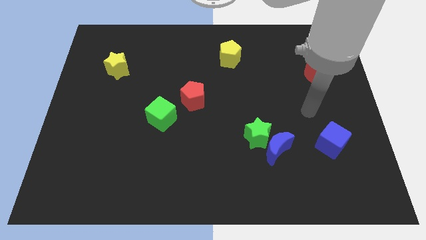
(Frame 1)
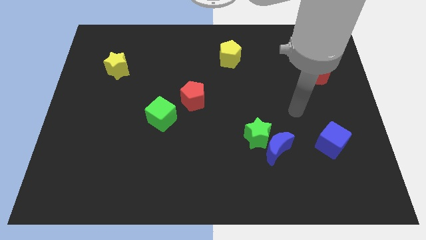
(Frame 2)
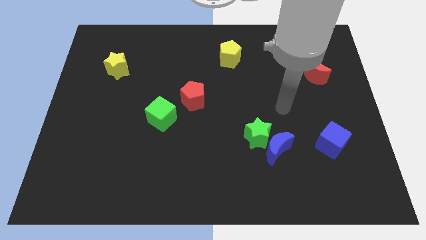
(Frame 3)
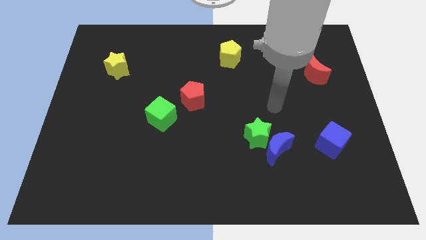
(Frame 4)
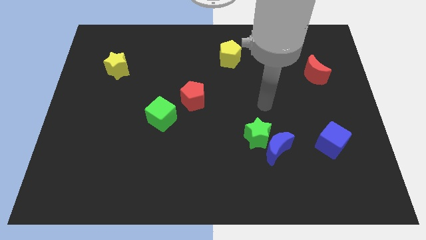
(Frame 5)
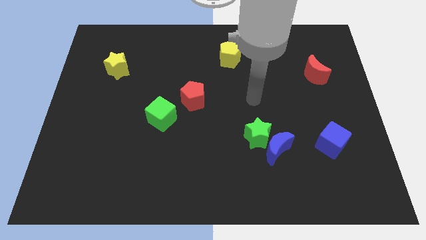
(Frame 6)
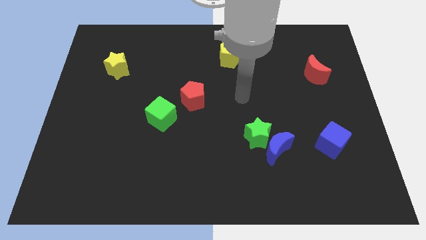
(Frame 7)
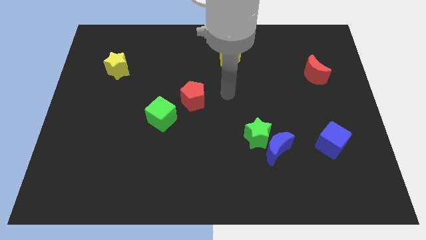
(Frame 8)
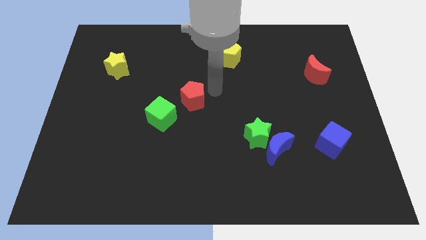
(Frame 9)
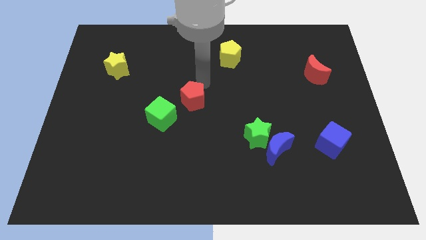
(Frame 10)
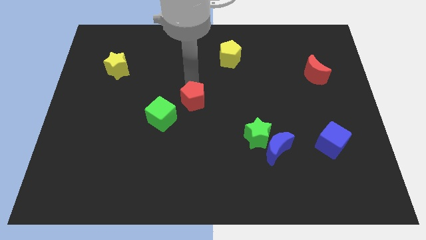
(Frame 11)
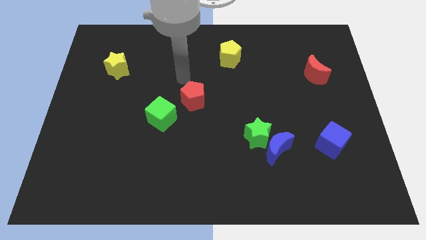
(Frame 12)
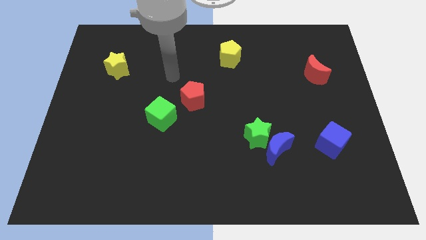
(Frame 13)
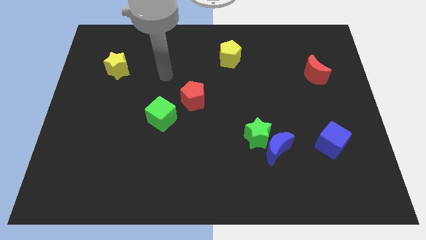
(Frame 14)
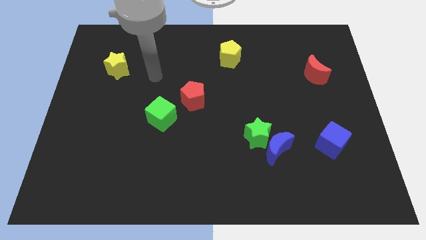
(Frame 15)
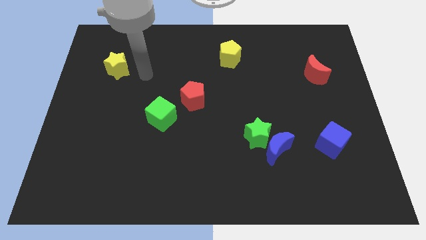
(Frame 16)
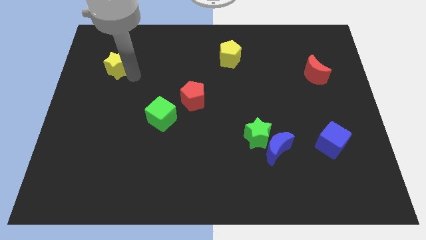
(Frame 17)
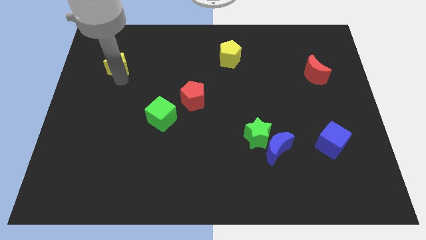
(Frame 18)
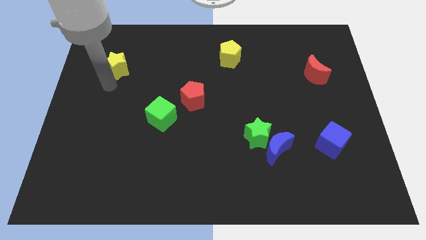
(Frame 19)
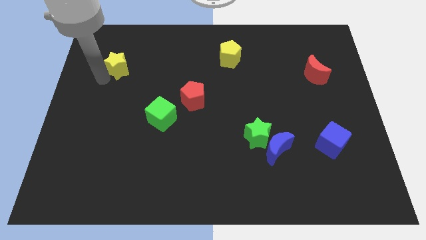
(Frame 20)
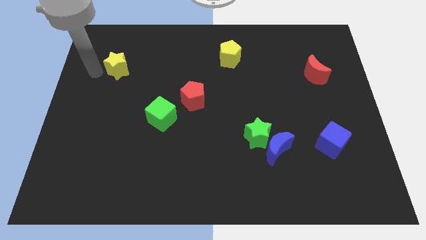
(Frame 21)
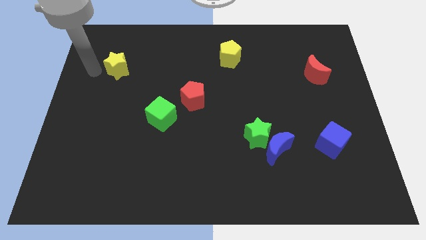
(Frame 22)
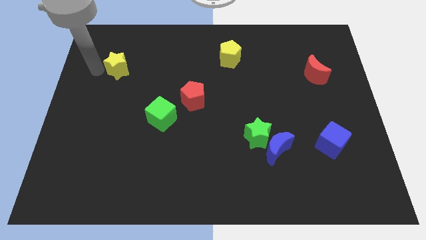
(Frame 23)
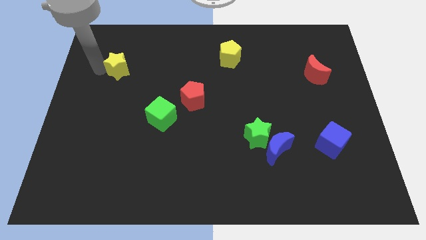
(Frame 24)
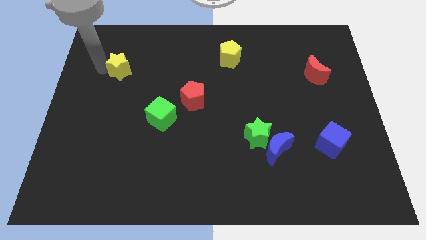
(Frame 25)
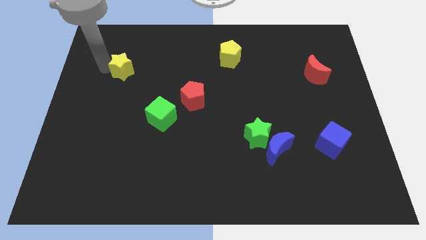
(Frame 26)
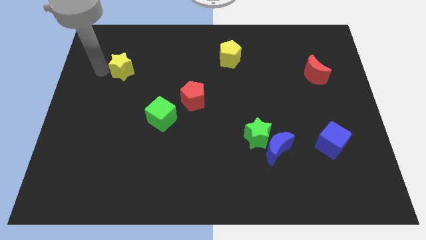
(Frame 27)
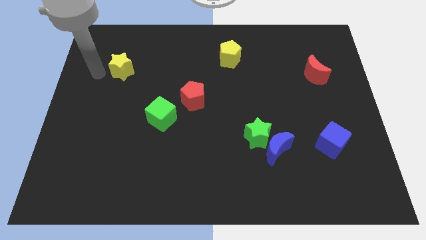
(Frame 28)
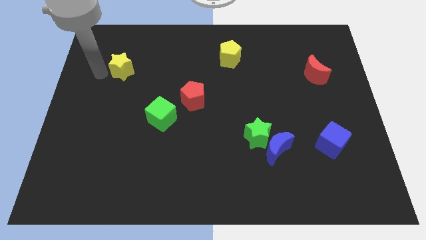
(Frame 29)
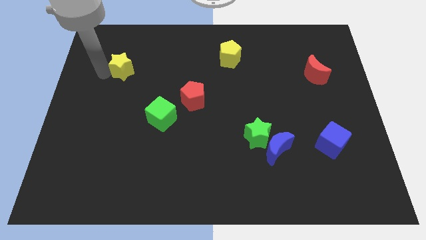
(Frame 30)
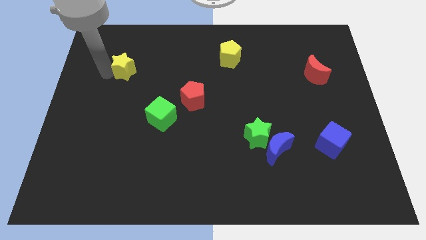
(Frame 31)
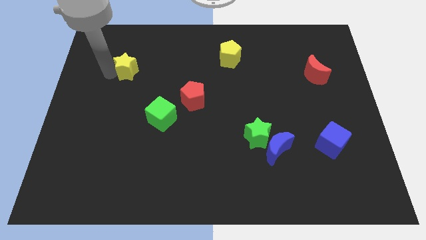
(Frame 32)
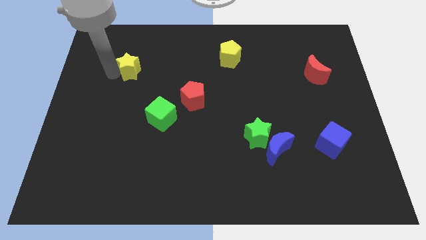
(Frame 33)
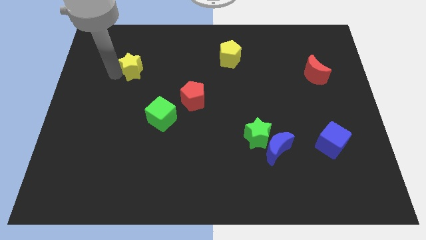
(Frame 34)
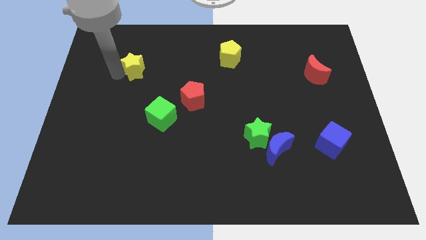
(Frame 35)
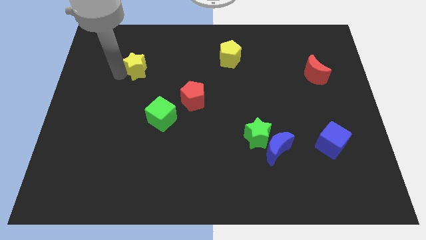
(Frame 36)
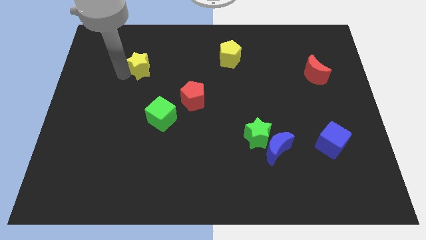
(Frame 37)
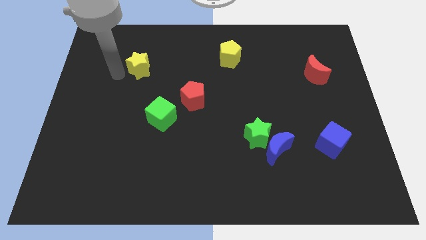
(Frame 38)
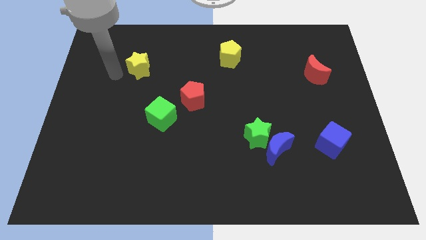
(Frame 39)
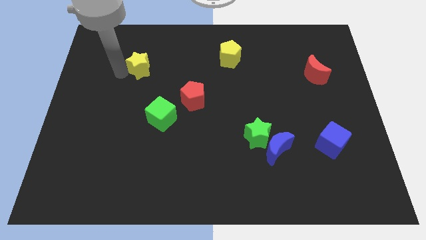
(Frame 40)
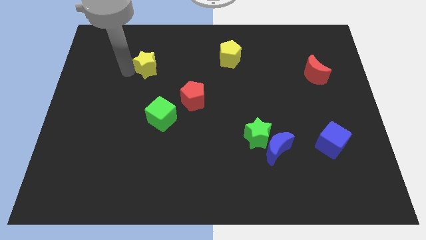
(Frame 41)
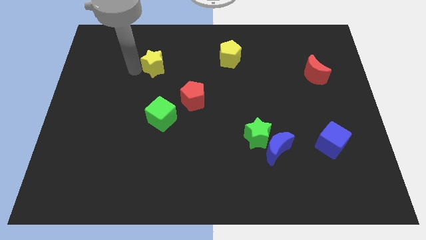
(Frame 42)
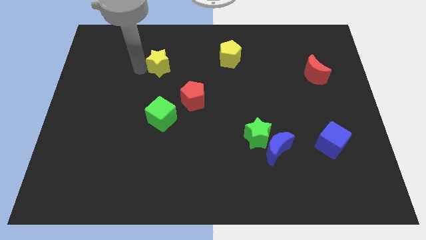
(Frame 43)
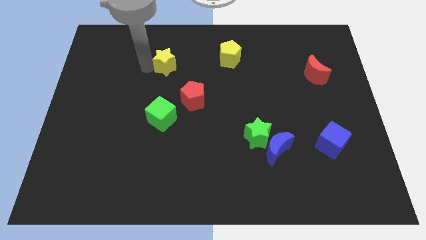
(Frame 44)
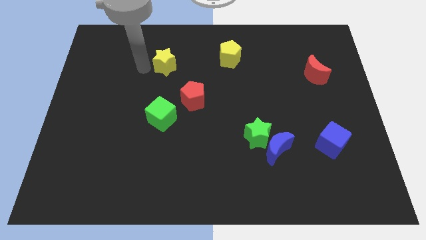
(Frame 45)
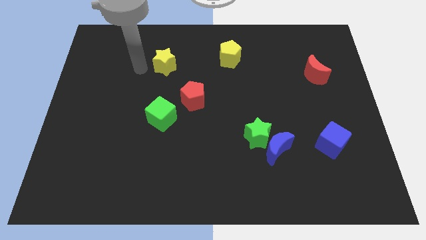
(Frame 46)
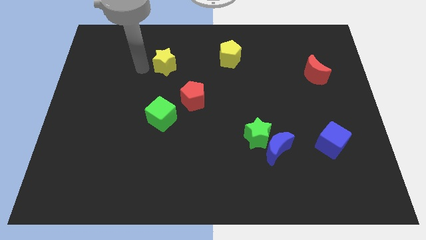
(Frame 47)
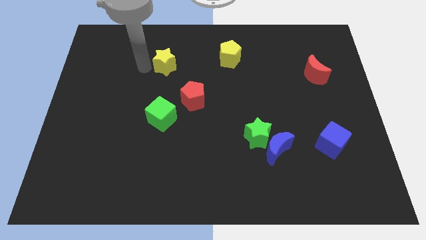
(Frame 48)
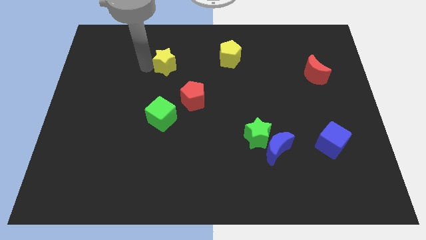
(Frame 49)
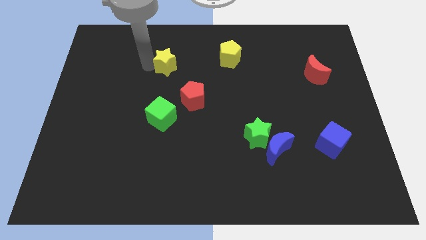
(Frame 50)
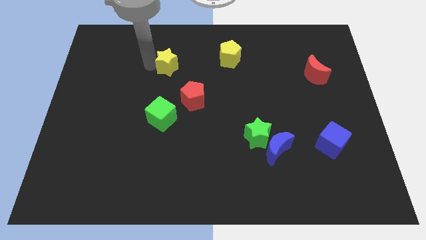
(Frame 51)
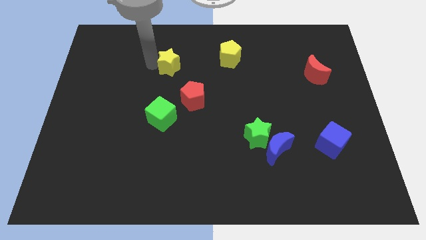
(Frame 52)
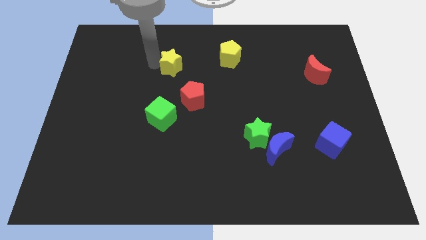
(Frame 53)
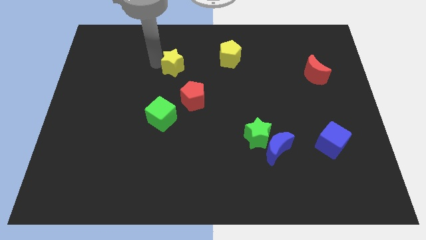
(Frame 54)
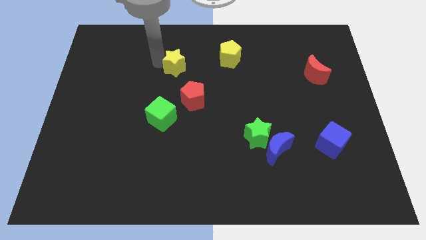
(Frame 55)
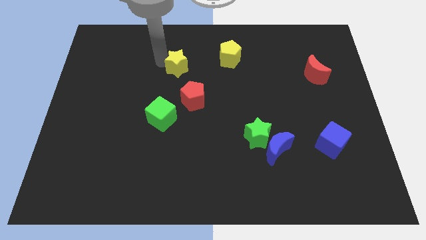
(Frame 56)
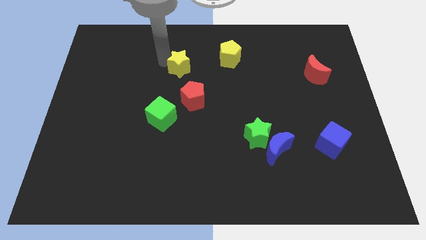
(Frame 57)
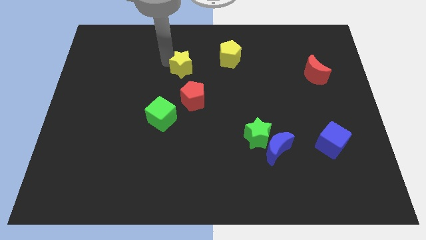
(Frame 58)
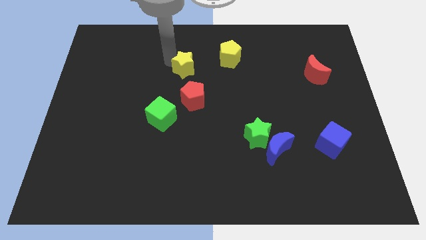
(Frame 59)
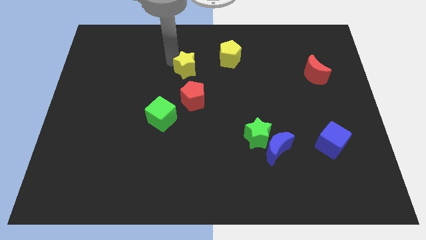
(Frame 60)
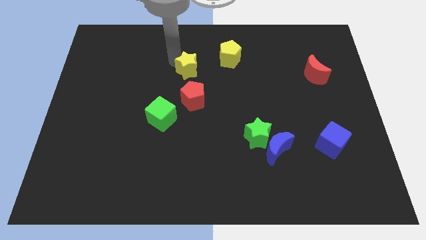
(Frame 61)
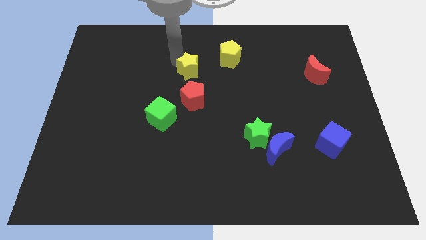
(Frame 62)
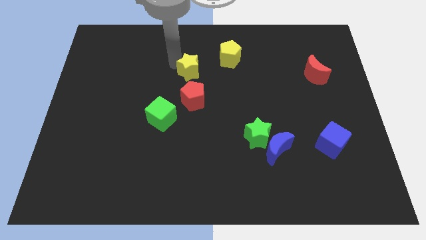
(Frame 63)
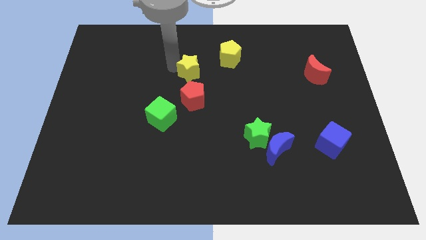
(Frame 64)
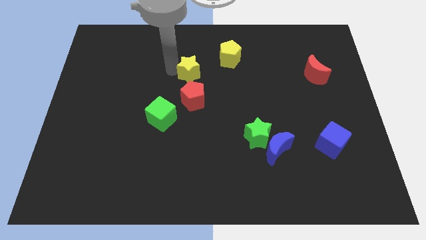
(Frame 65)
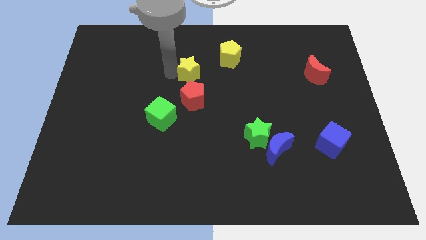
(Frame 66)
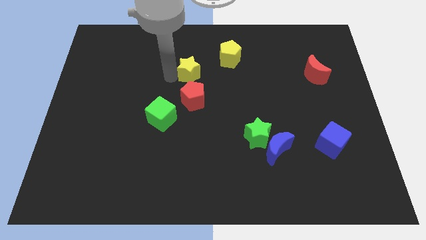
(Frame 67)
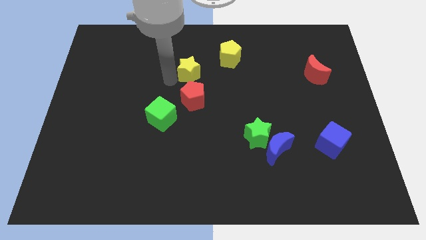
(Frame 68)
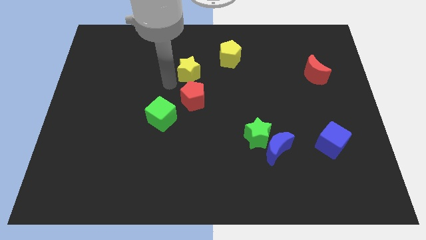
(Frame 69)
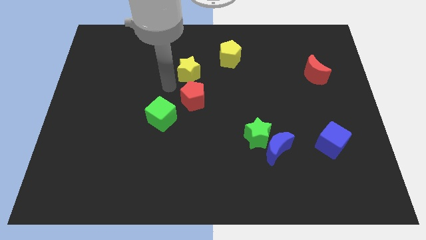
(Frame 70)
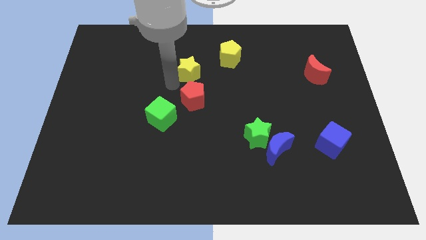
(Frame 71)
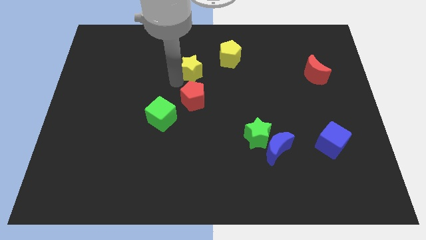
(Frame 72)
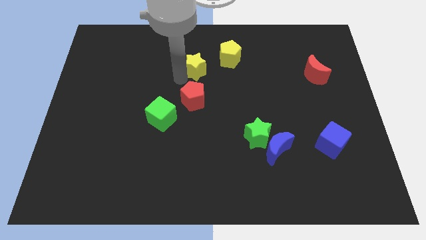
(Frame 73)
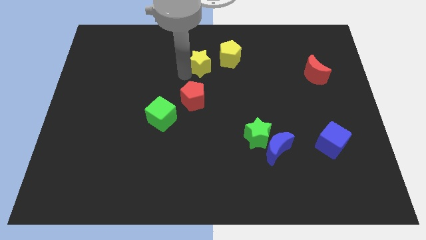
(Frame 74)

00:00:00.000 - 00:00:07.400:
slide the yellow star to the right

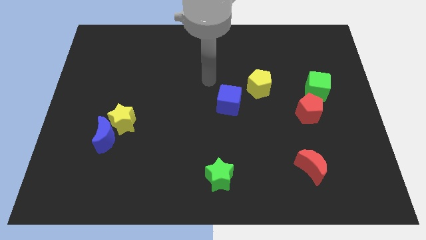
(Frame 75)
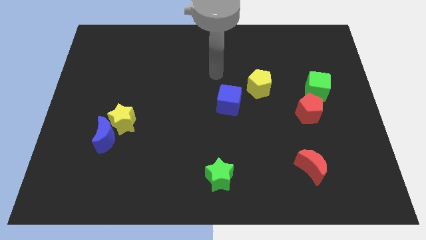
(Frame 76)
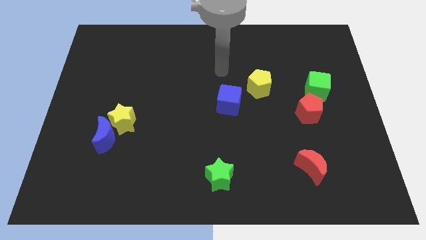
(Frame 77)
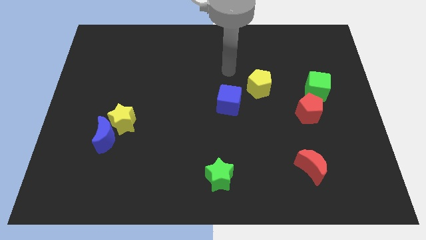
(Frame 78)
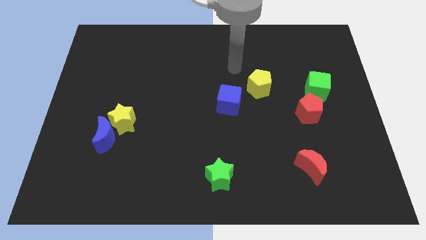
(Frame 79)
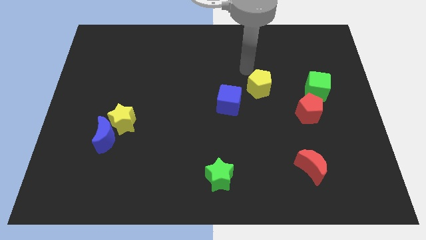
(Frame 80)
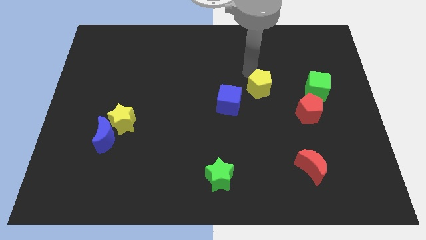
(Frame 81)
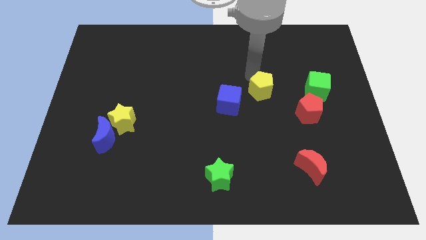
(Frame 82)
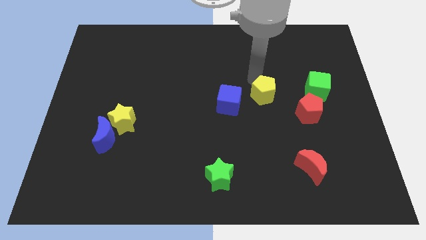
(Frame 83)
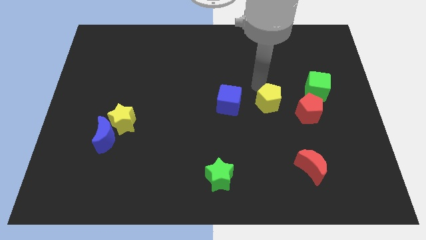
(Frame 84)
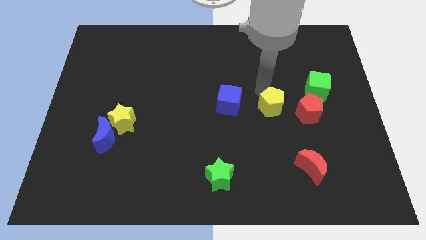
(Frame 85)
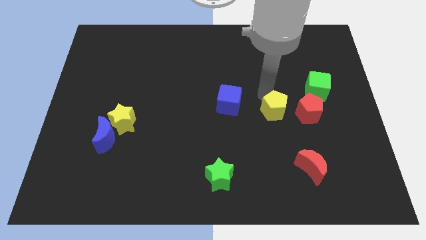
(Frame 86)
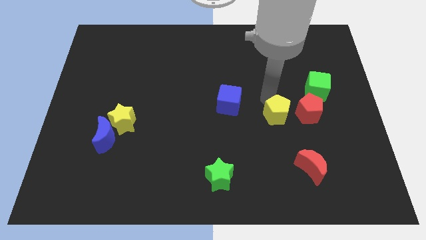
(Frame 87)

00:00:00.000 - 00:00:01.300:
push the yellow pentagon diagonally down and to the right a little bit
